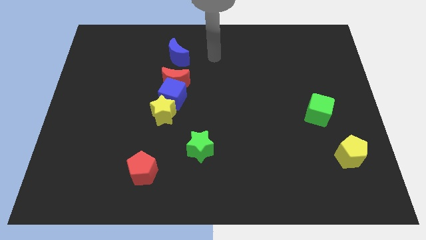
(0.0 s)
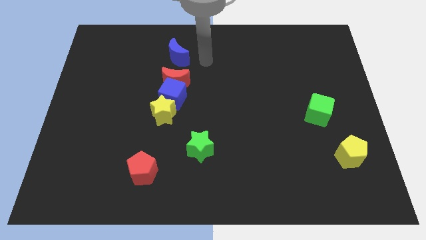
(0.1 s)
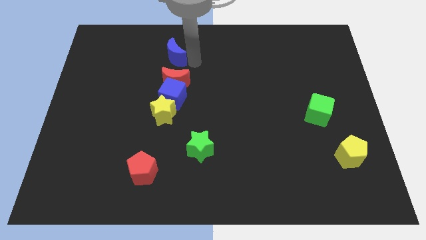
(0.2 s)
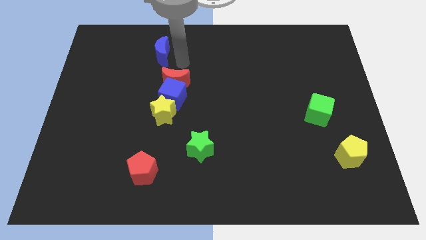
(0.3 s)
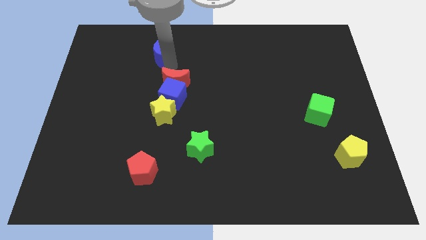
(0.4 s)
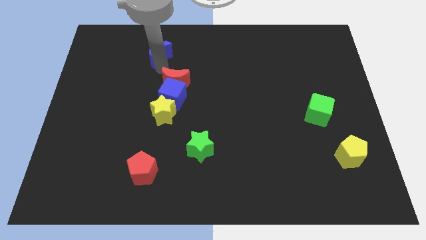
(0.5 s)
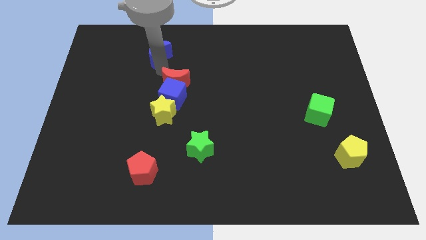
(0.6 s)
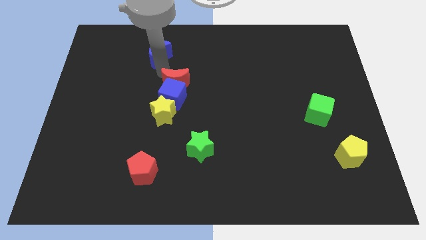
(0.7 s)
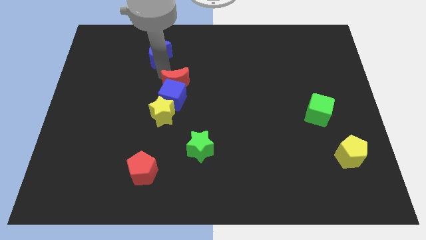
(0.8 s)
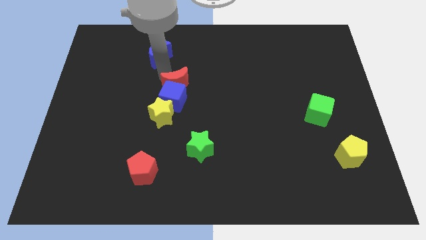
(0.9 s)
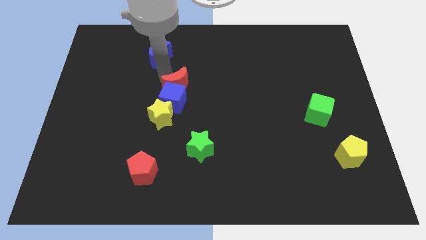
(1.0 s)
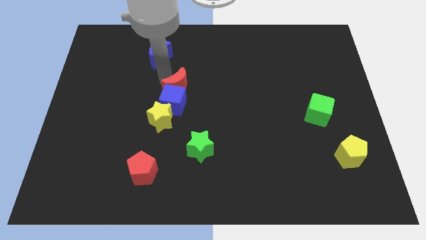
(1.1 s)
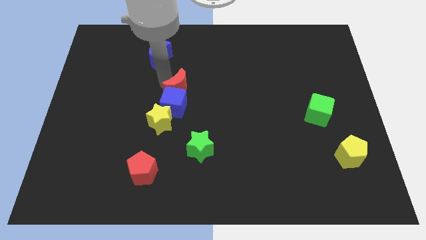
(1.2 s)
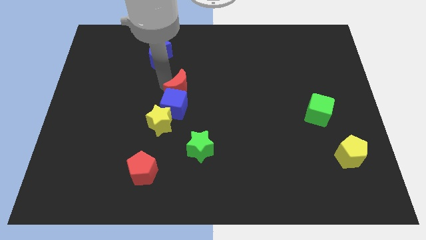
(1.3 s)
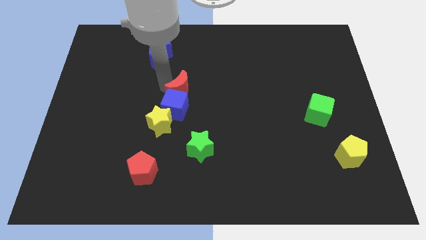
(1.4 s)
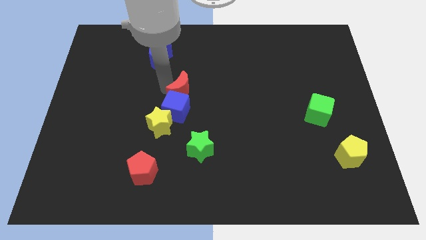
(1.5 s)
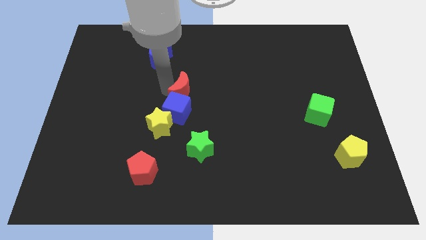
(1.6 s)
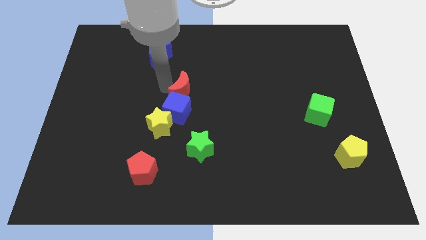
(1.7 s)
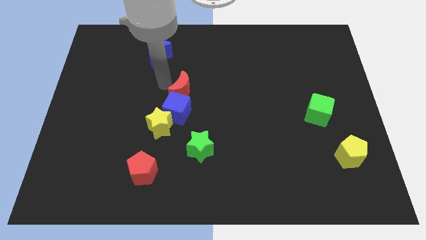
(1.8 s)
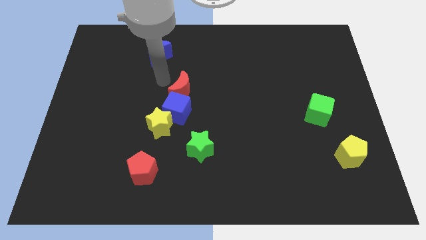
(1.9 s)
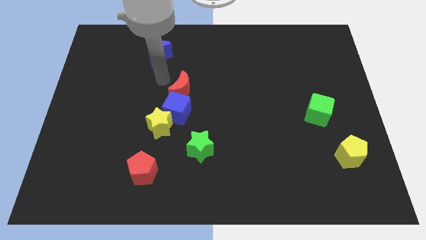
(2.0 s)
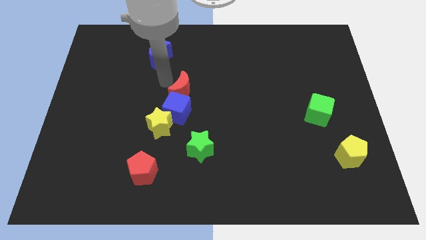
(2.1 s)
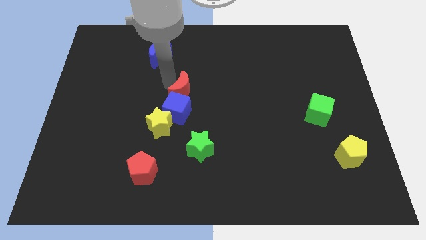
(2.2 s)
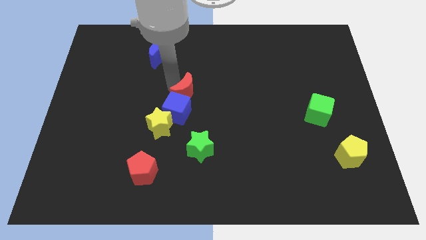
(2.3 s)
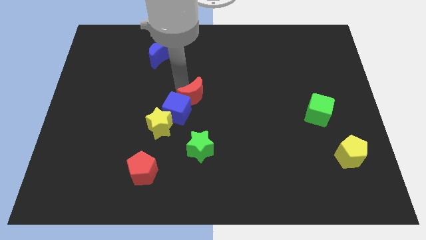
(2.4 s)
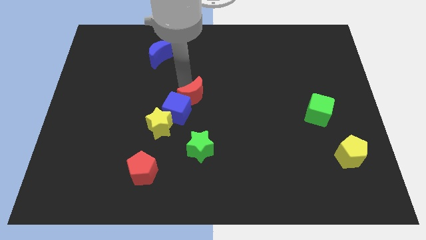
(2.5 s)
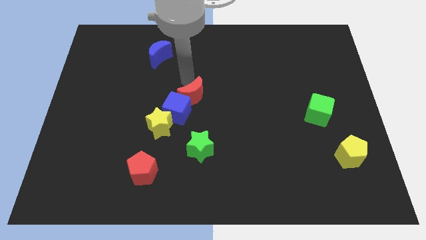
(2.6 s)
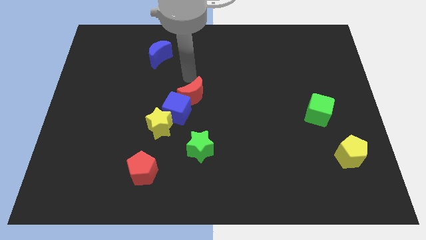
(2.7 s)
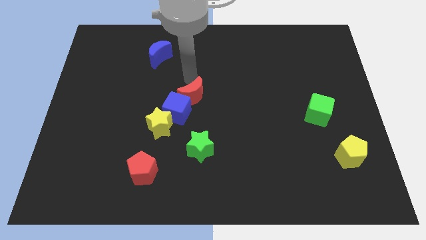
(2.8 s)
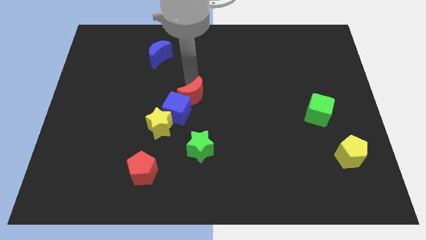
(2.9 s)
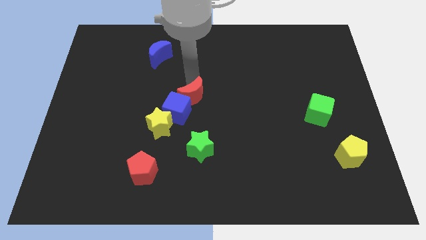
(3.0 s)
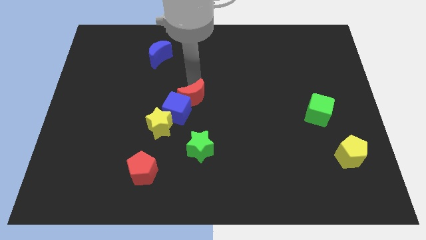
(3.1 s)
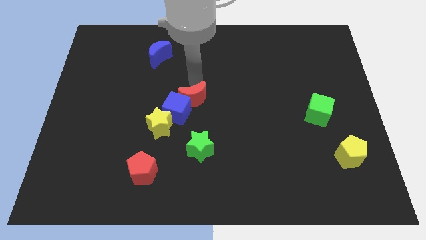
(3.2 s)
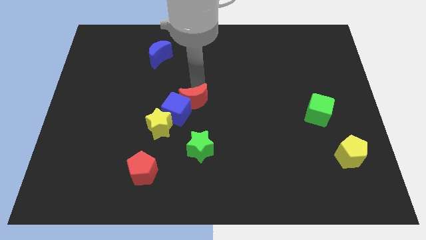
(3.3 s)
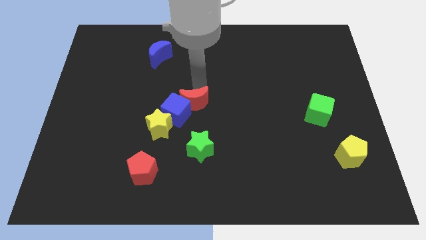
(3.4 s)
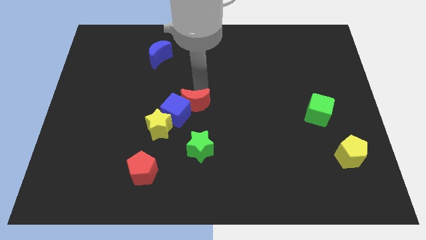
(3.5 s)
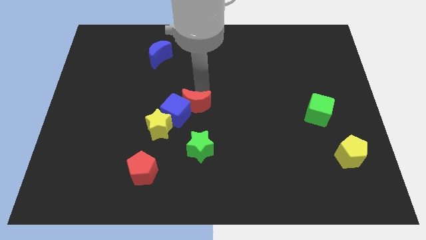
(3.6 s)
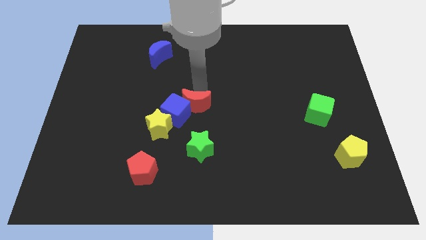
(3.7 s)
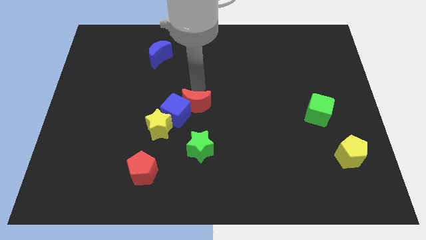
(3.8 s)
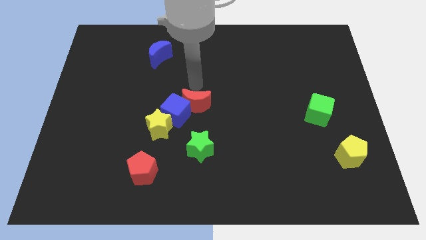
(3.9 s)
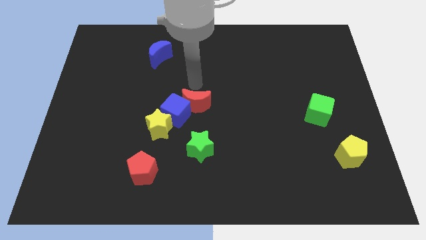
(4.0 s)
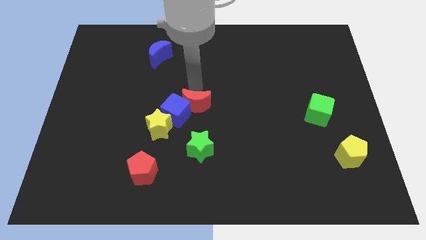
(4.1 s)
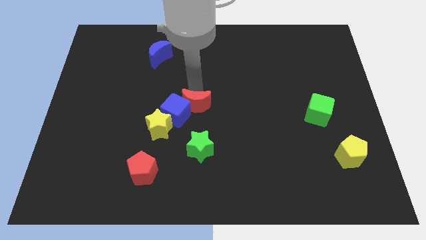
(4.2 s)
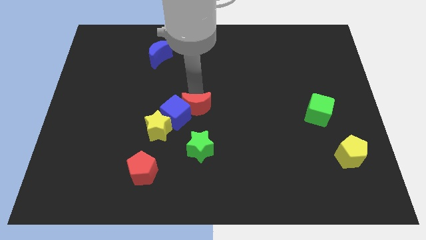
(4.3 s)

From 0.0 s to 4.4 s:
push the red moon somewhat downwards

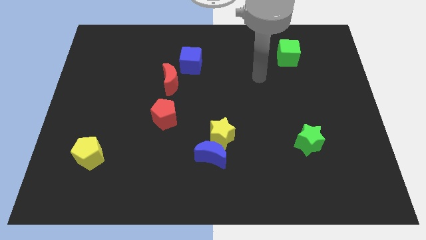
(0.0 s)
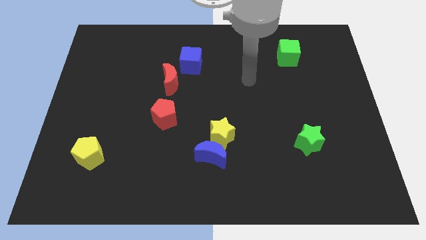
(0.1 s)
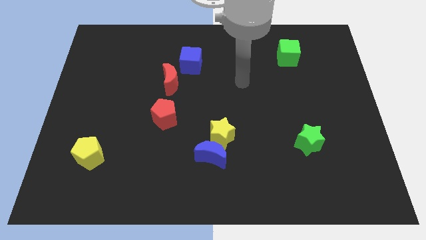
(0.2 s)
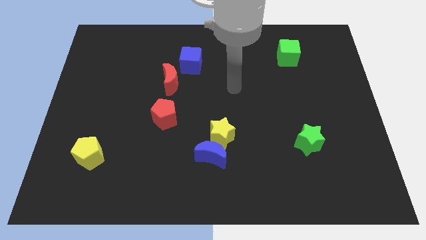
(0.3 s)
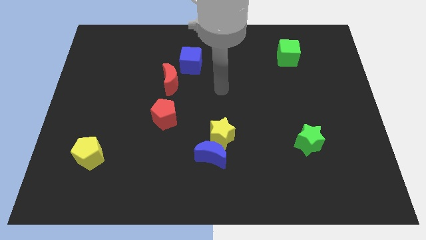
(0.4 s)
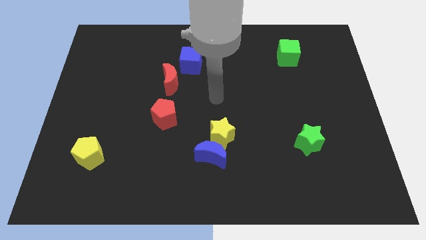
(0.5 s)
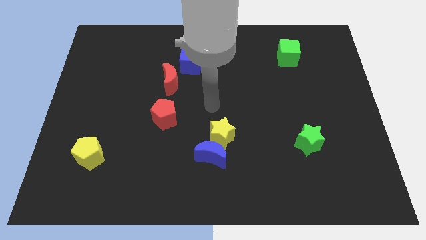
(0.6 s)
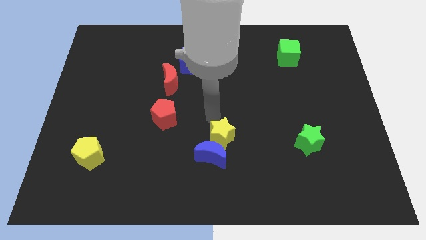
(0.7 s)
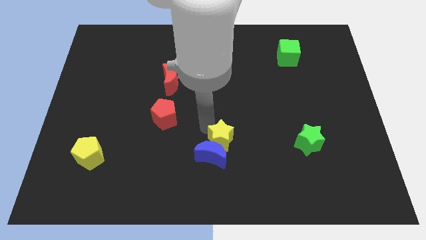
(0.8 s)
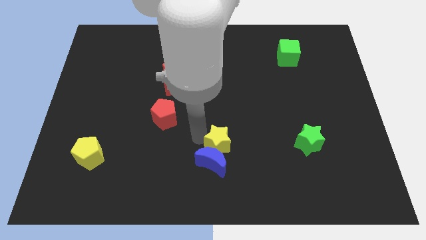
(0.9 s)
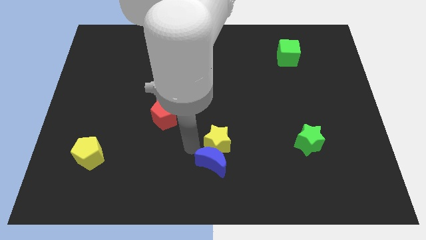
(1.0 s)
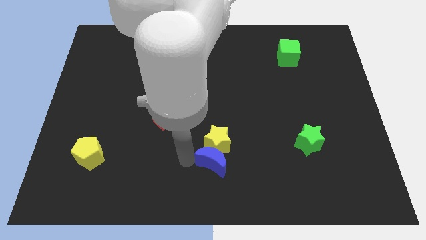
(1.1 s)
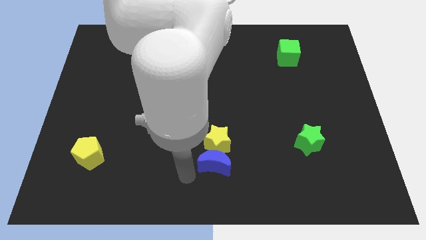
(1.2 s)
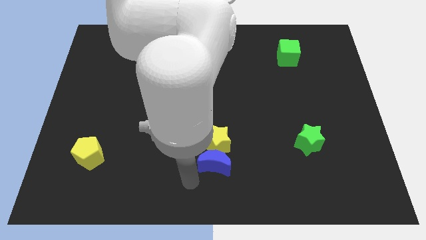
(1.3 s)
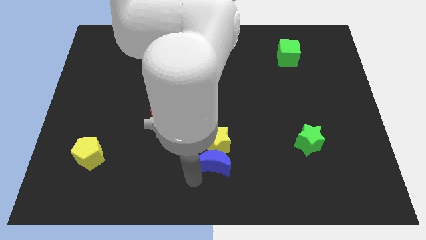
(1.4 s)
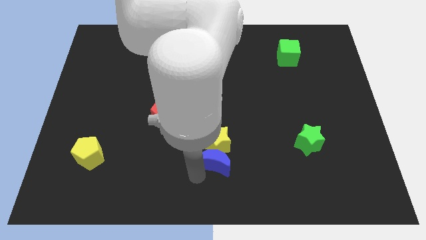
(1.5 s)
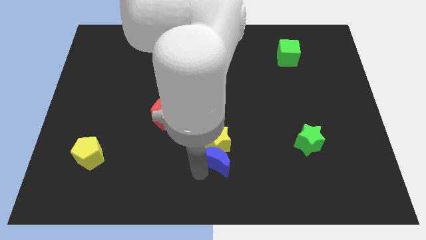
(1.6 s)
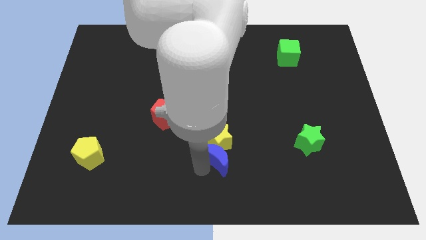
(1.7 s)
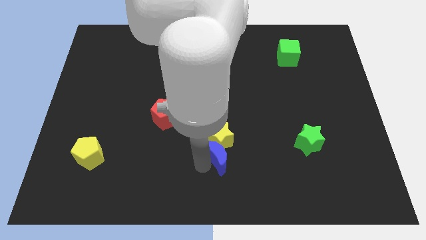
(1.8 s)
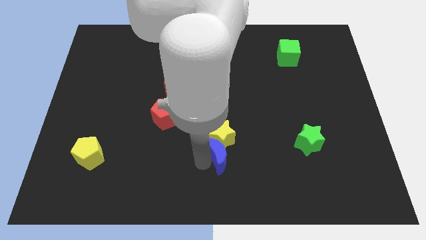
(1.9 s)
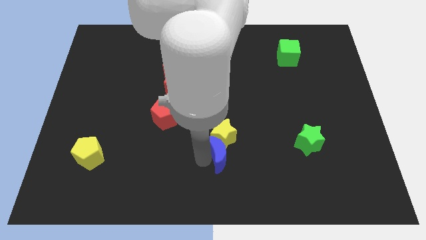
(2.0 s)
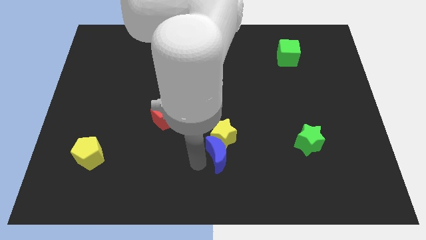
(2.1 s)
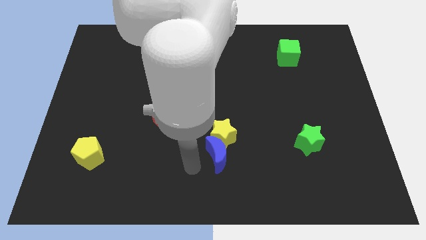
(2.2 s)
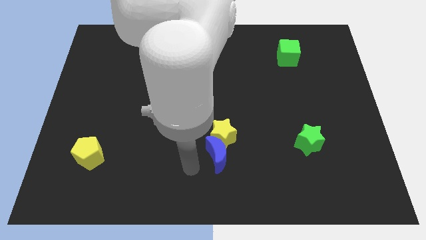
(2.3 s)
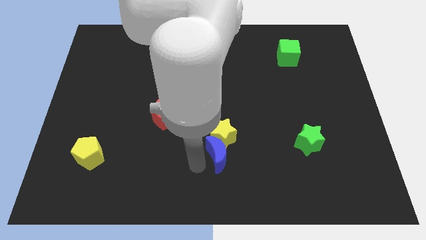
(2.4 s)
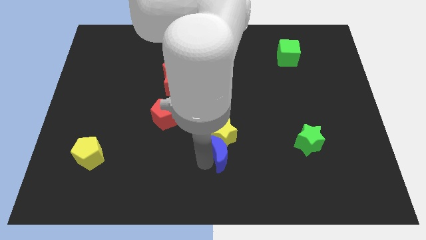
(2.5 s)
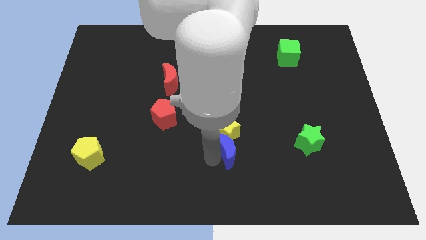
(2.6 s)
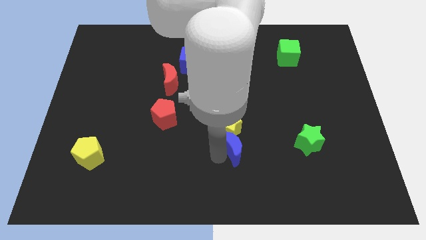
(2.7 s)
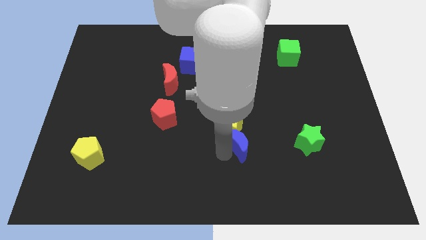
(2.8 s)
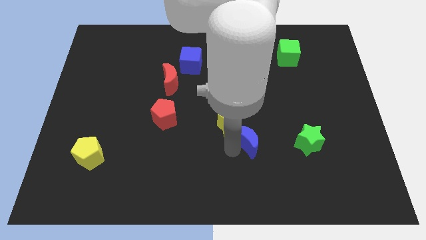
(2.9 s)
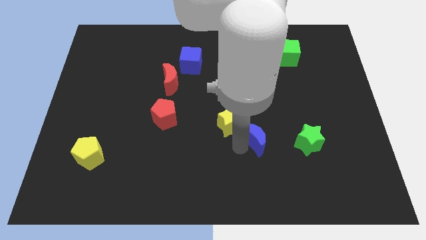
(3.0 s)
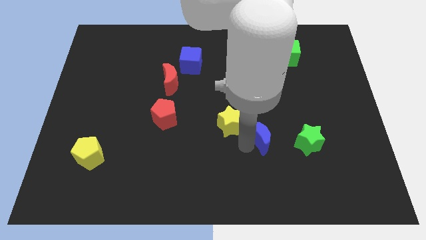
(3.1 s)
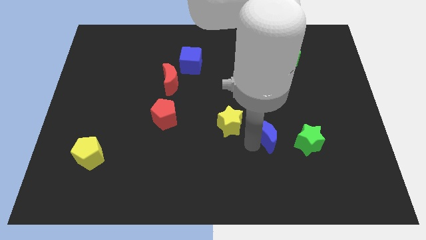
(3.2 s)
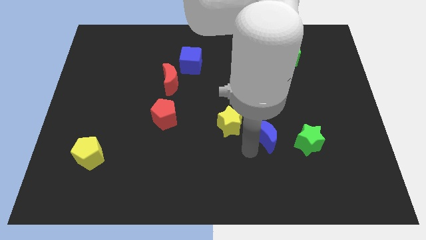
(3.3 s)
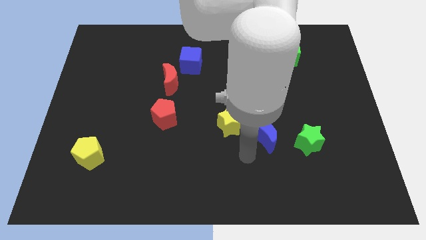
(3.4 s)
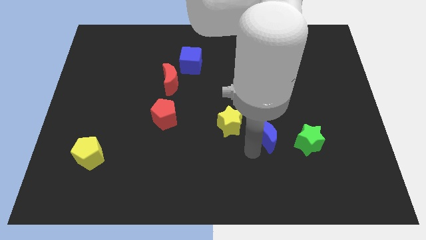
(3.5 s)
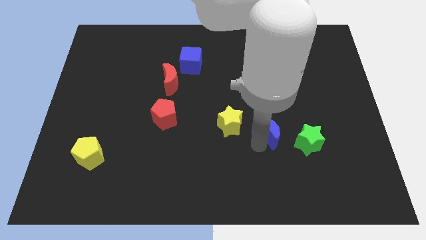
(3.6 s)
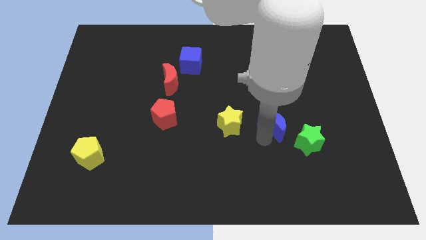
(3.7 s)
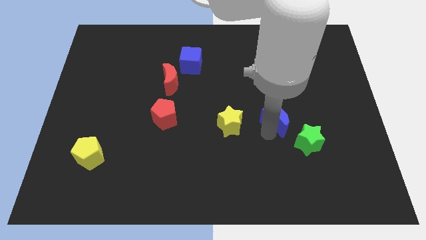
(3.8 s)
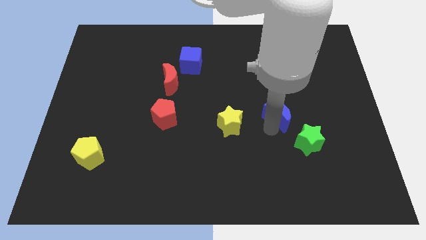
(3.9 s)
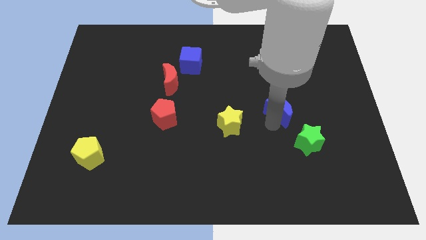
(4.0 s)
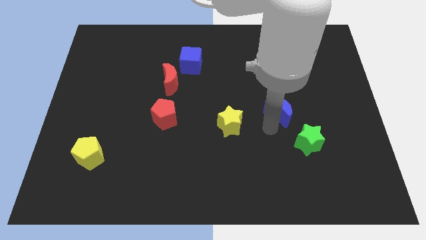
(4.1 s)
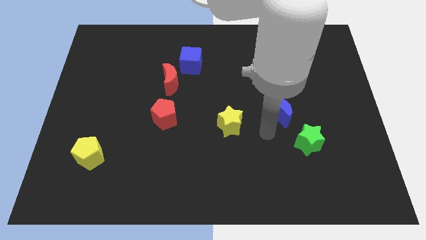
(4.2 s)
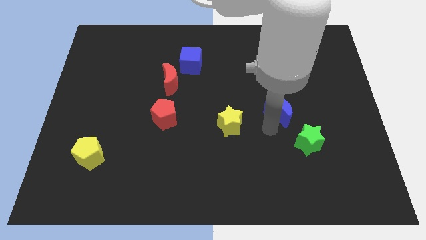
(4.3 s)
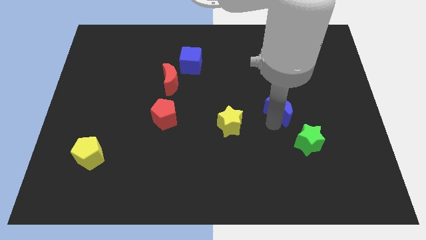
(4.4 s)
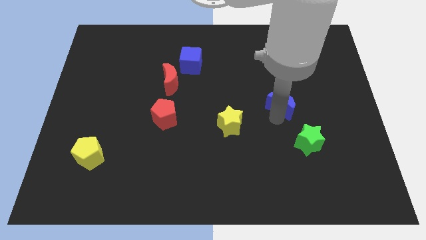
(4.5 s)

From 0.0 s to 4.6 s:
slide the blue moon upwards and then right
